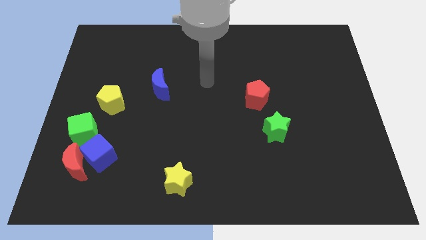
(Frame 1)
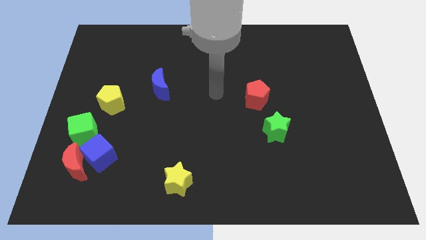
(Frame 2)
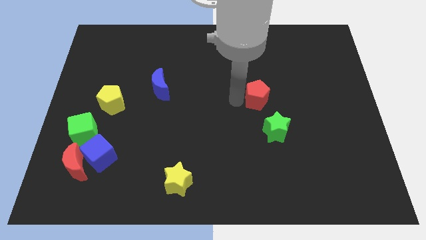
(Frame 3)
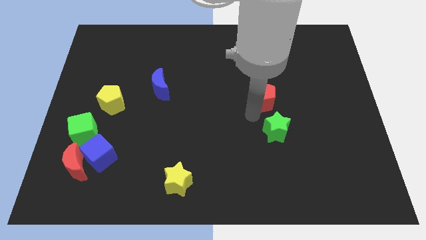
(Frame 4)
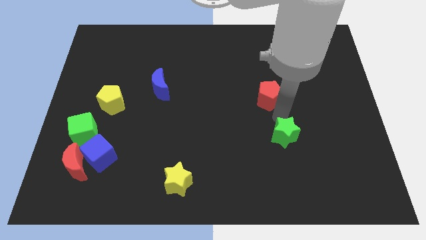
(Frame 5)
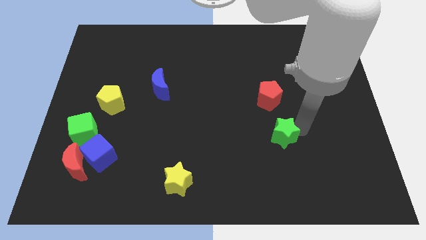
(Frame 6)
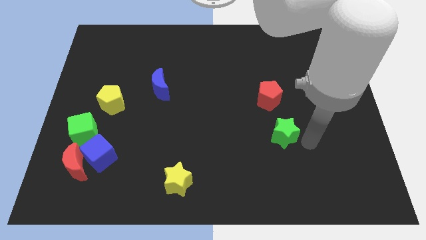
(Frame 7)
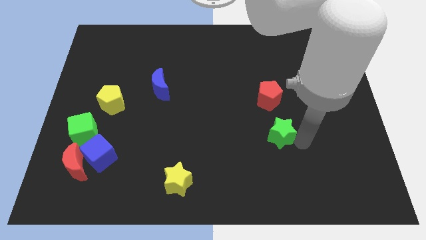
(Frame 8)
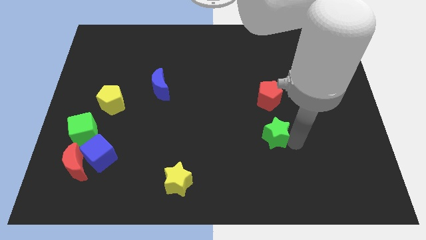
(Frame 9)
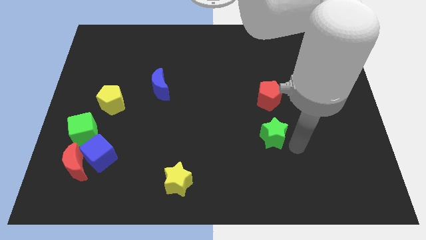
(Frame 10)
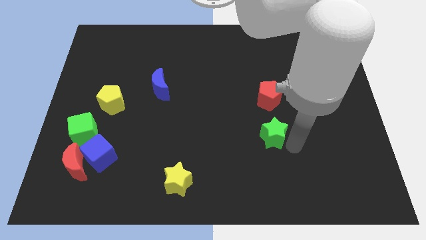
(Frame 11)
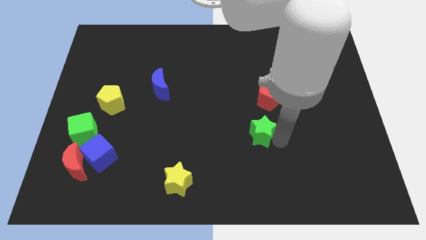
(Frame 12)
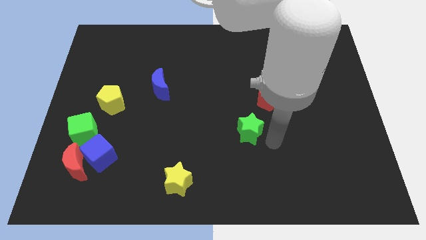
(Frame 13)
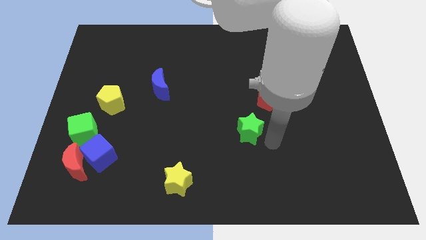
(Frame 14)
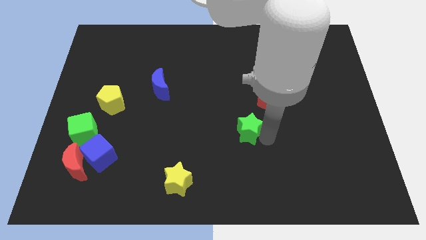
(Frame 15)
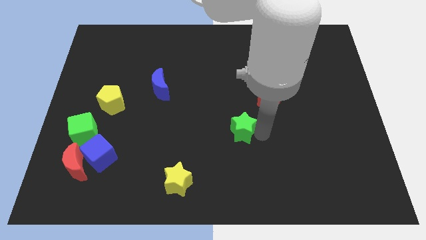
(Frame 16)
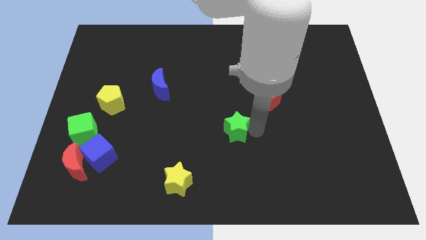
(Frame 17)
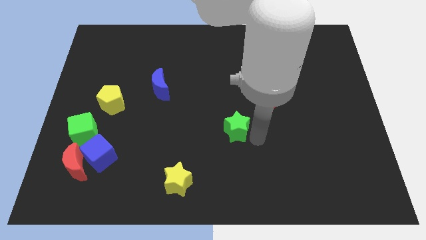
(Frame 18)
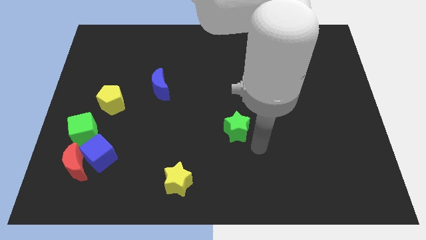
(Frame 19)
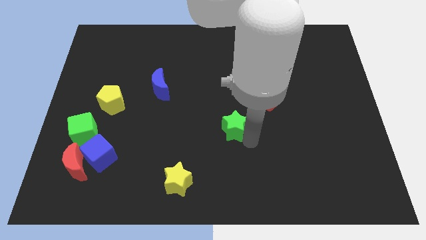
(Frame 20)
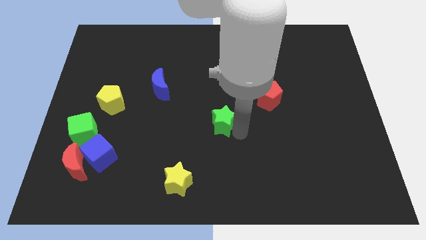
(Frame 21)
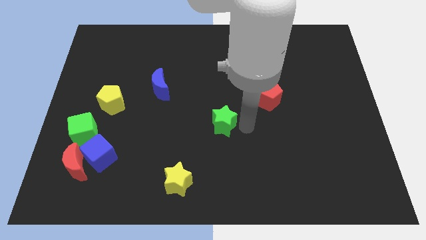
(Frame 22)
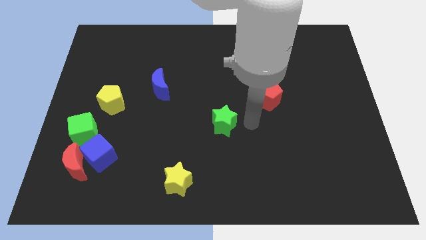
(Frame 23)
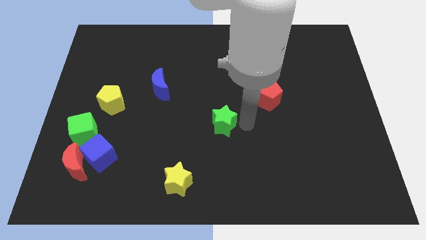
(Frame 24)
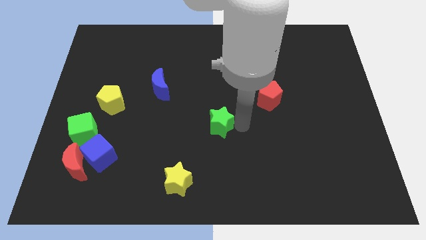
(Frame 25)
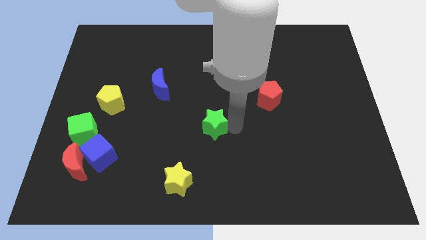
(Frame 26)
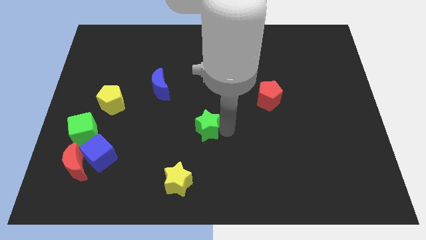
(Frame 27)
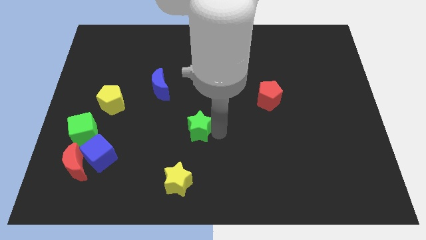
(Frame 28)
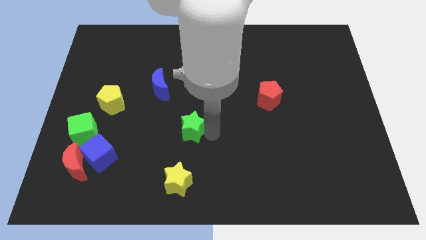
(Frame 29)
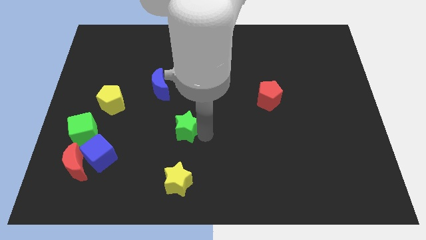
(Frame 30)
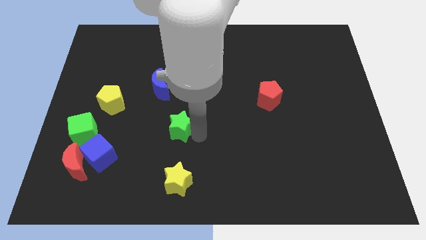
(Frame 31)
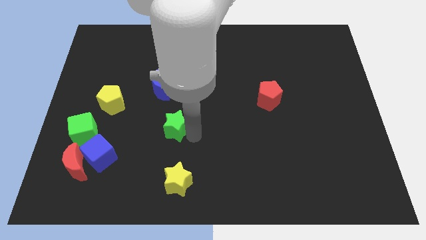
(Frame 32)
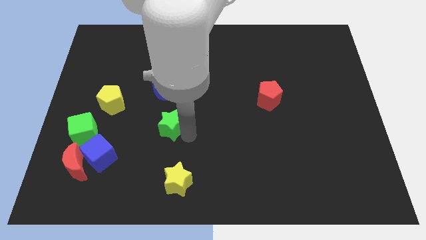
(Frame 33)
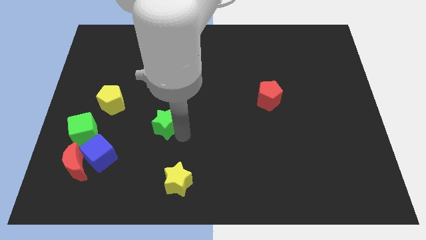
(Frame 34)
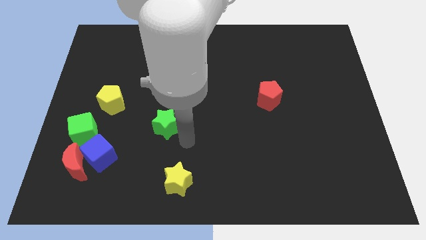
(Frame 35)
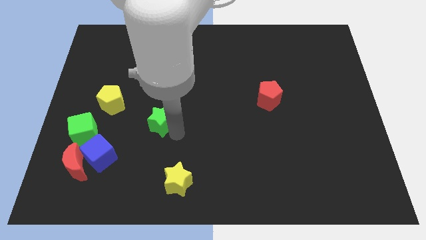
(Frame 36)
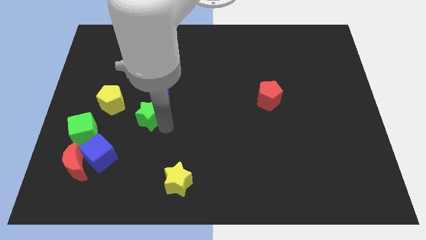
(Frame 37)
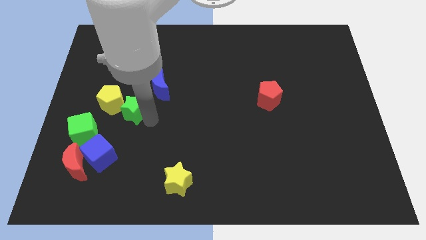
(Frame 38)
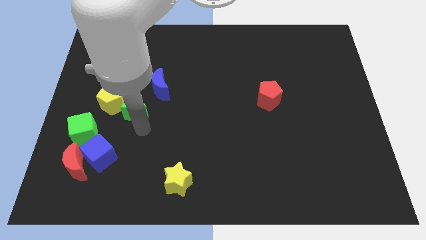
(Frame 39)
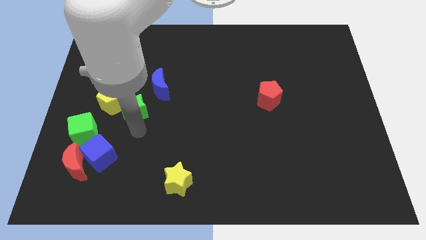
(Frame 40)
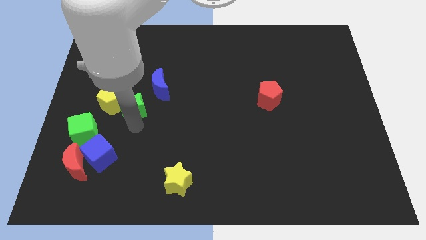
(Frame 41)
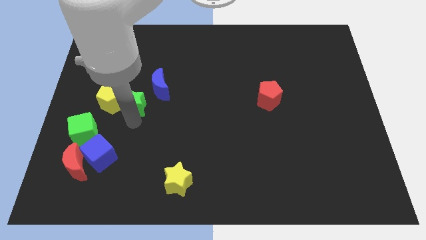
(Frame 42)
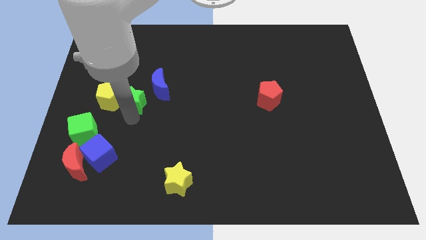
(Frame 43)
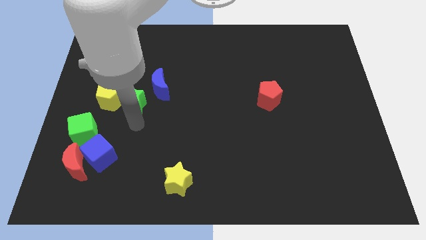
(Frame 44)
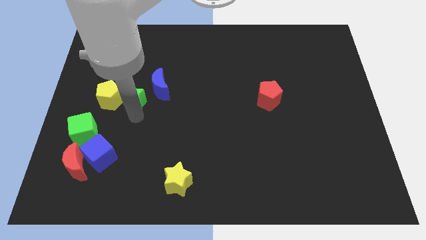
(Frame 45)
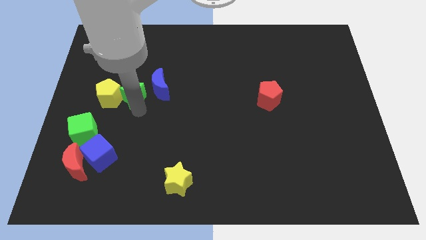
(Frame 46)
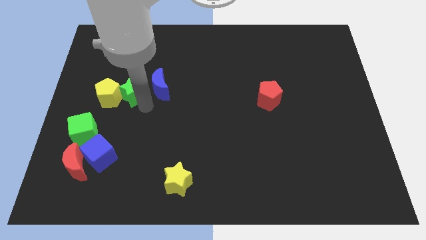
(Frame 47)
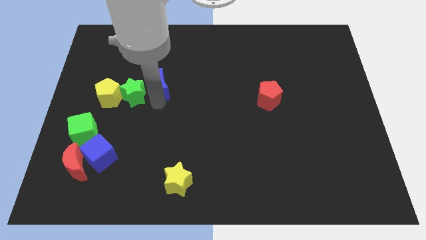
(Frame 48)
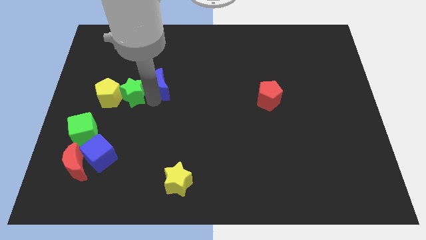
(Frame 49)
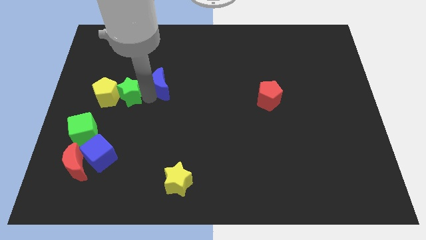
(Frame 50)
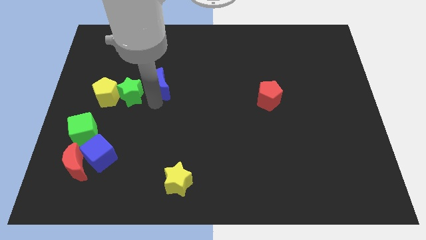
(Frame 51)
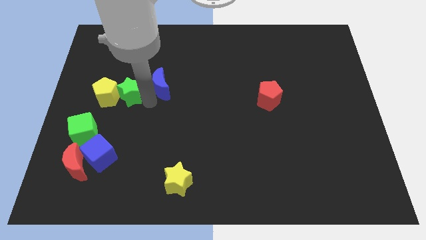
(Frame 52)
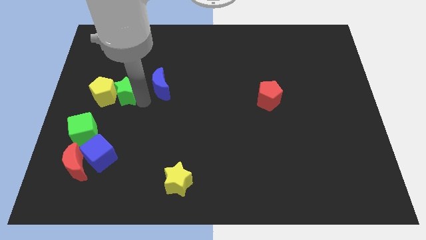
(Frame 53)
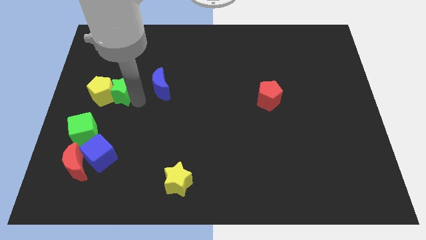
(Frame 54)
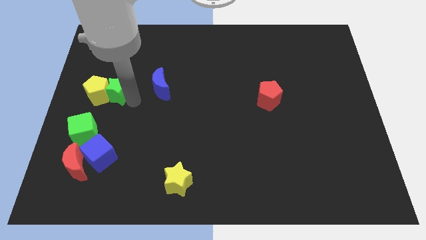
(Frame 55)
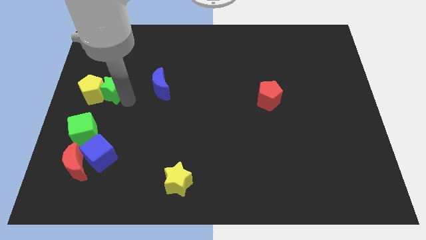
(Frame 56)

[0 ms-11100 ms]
put the green star above the green cube

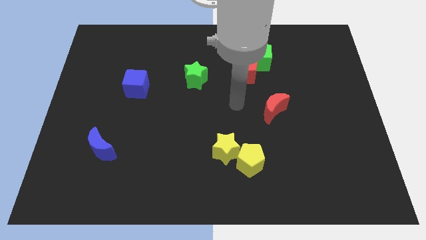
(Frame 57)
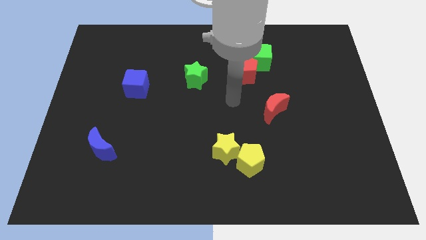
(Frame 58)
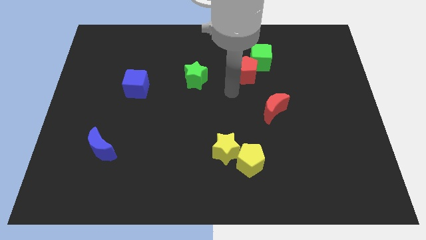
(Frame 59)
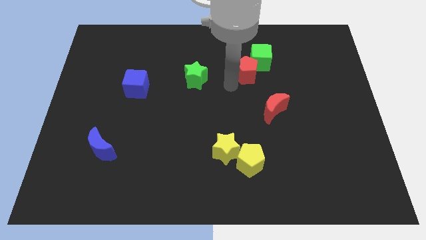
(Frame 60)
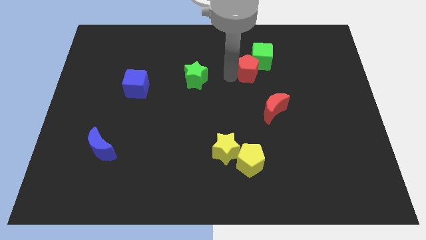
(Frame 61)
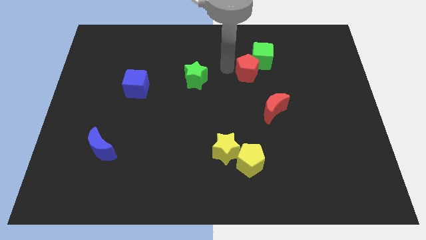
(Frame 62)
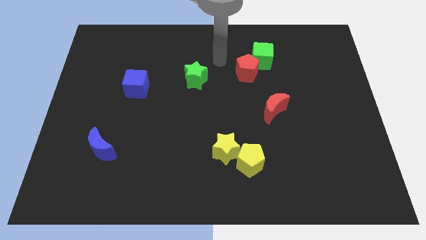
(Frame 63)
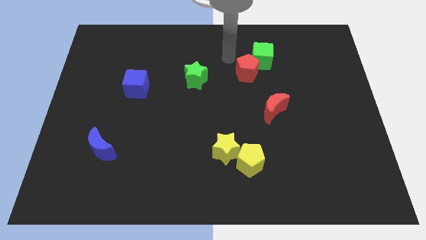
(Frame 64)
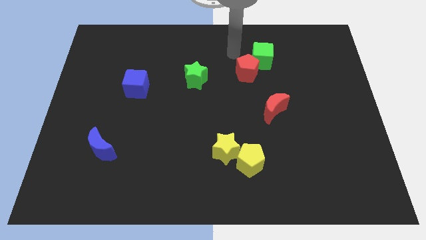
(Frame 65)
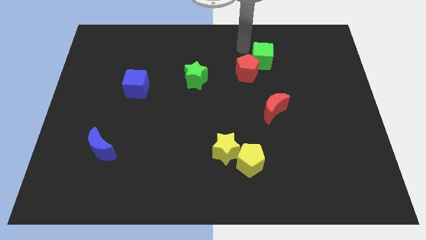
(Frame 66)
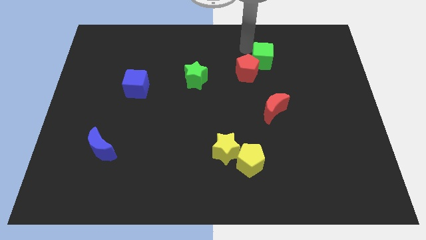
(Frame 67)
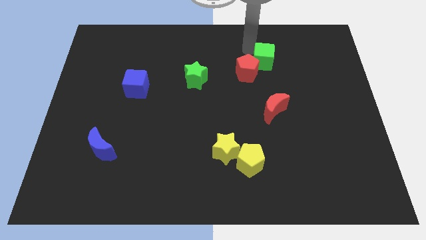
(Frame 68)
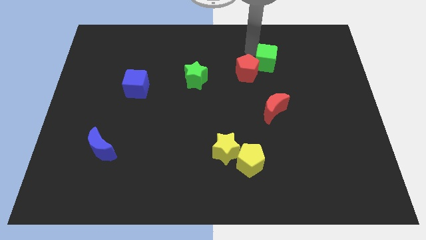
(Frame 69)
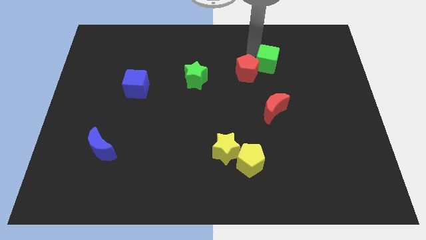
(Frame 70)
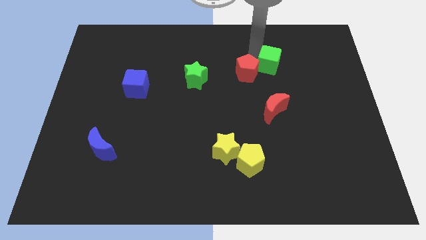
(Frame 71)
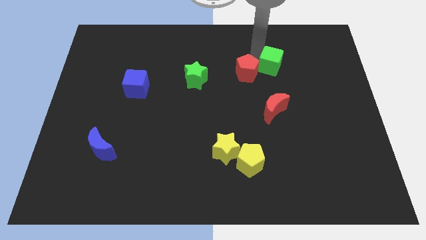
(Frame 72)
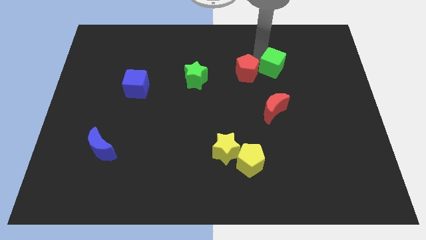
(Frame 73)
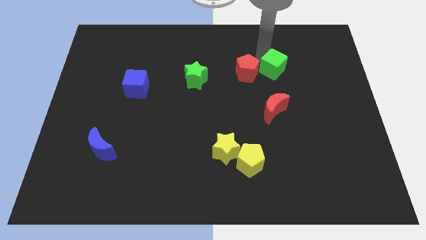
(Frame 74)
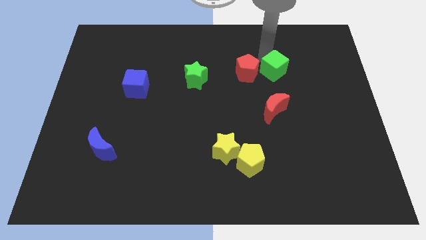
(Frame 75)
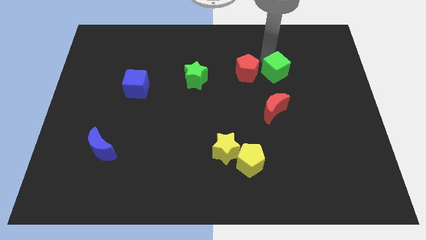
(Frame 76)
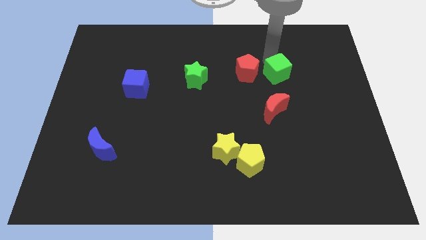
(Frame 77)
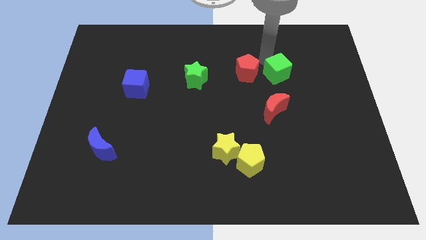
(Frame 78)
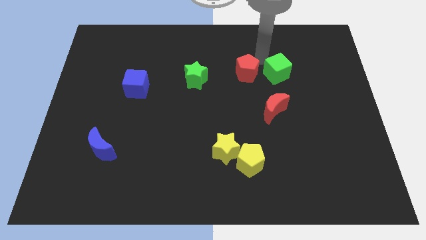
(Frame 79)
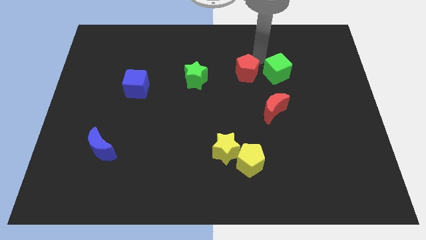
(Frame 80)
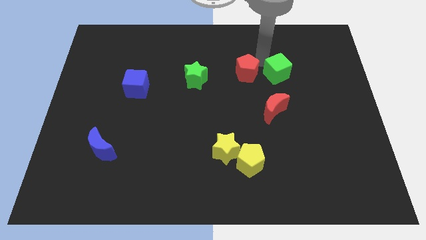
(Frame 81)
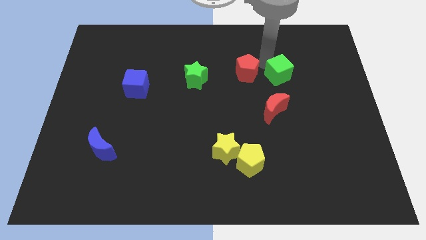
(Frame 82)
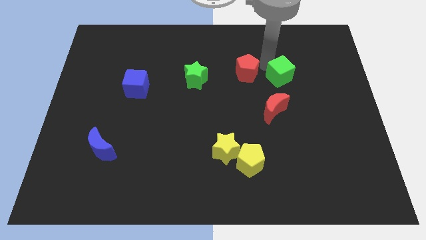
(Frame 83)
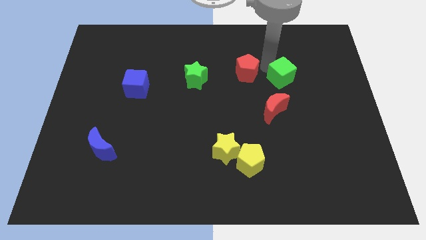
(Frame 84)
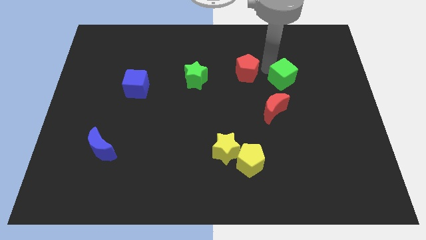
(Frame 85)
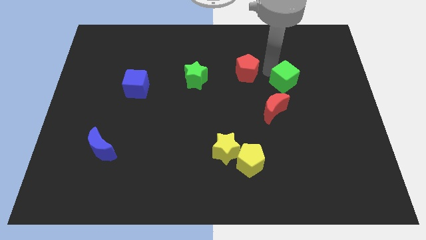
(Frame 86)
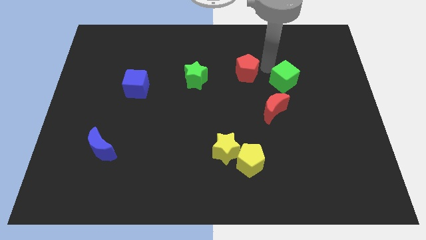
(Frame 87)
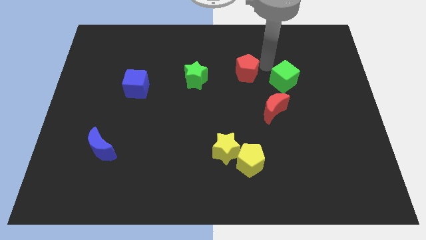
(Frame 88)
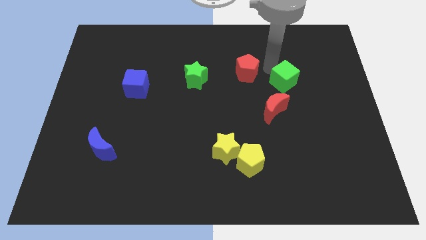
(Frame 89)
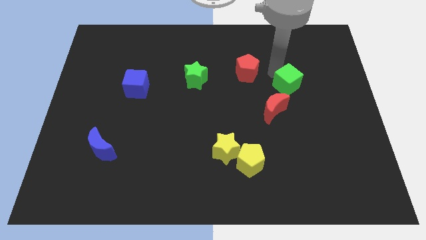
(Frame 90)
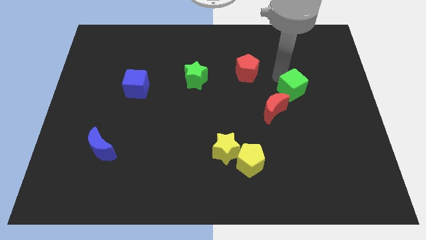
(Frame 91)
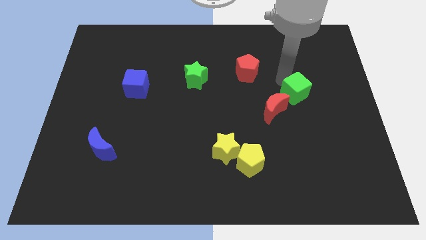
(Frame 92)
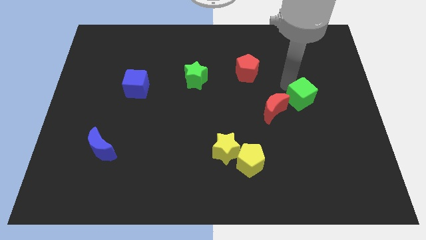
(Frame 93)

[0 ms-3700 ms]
put the green cube to the right side of the red moon
